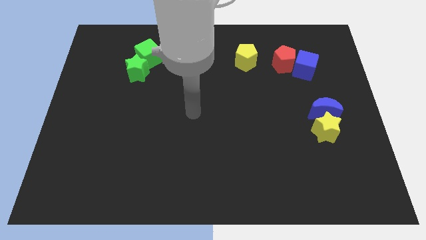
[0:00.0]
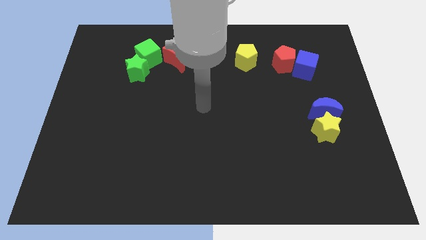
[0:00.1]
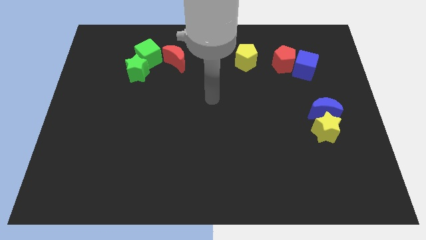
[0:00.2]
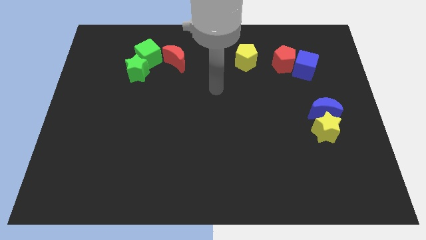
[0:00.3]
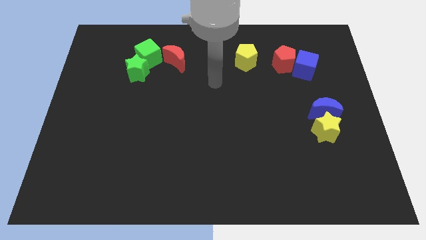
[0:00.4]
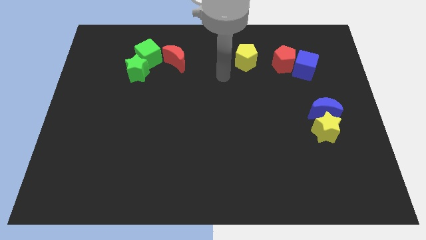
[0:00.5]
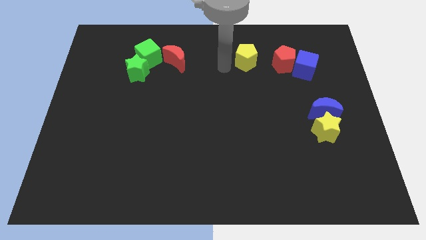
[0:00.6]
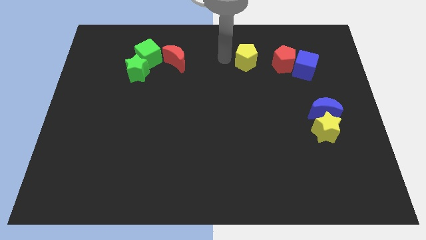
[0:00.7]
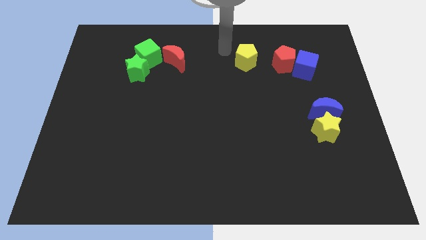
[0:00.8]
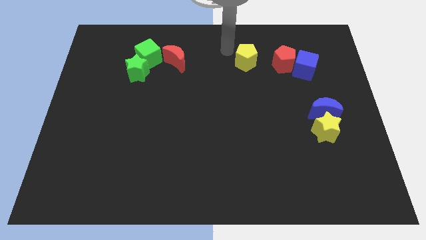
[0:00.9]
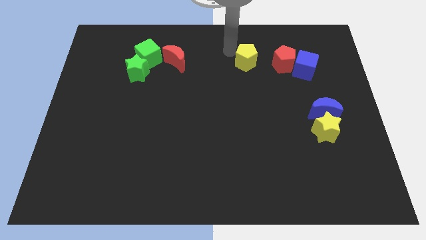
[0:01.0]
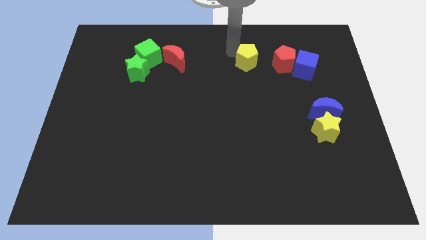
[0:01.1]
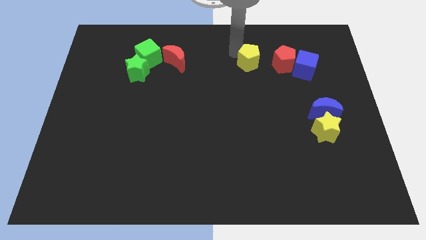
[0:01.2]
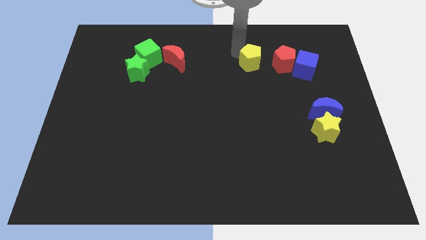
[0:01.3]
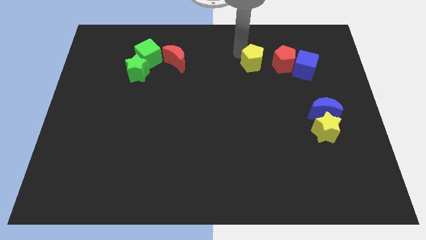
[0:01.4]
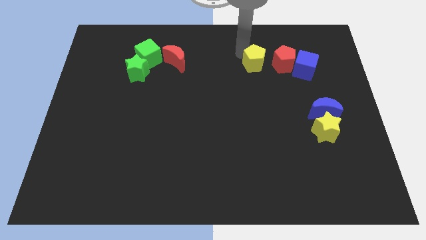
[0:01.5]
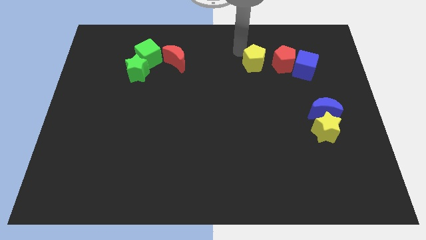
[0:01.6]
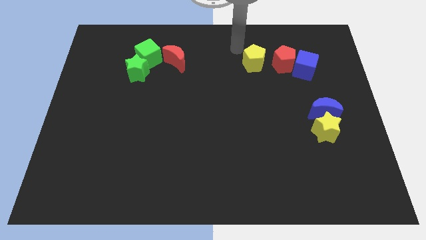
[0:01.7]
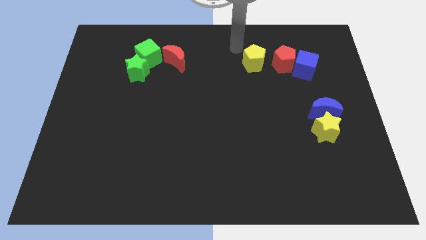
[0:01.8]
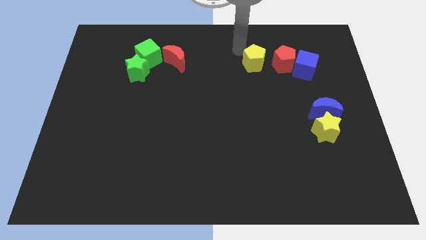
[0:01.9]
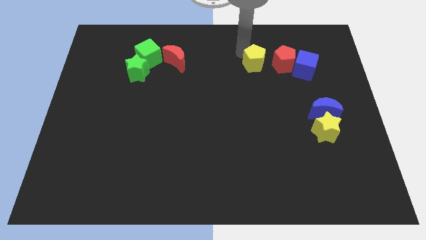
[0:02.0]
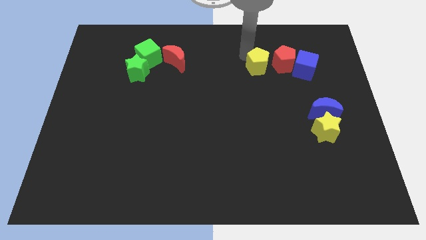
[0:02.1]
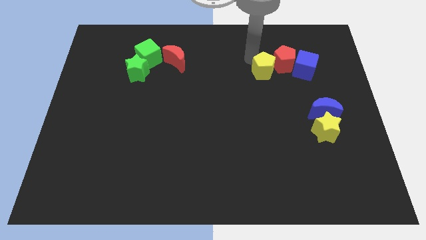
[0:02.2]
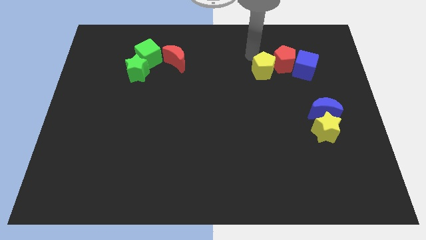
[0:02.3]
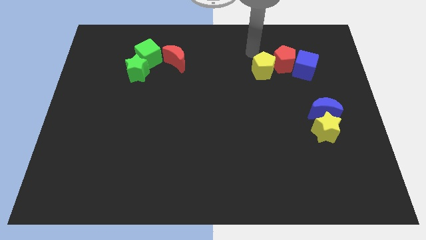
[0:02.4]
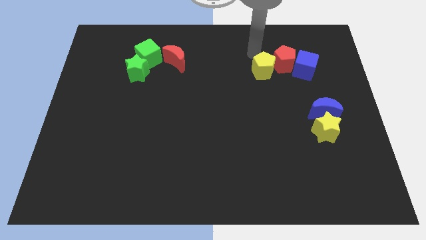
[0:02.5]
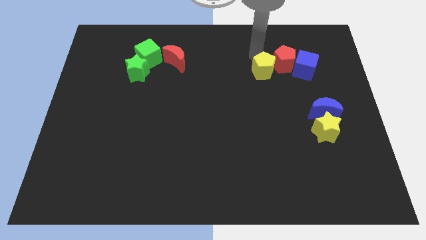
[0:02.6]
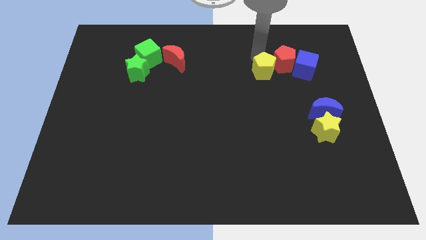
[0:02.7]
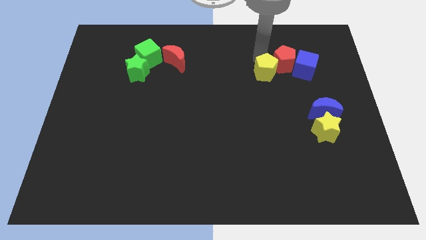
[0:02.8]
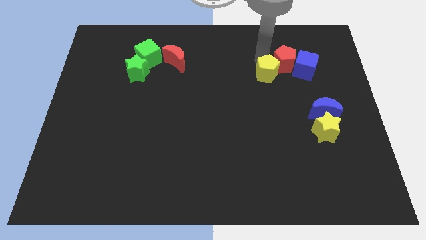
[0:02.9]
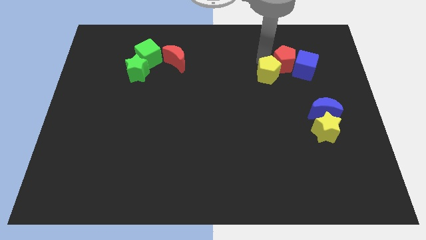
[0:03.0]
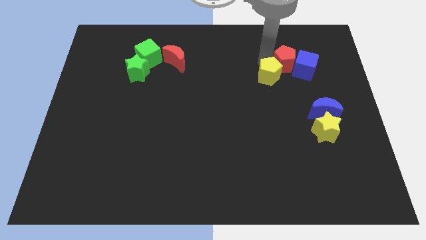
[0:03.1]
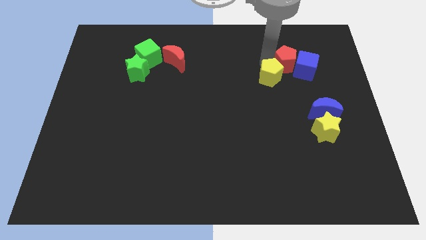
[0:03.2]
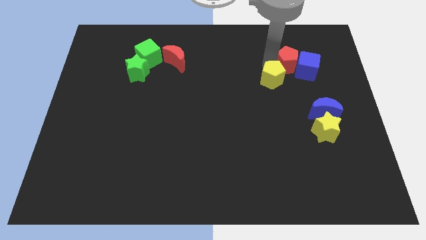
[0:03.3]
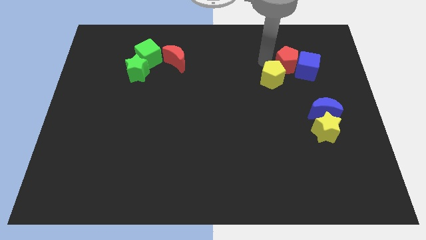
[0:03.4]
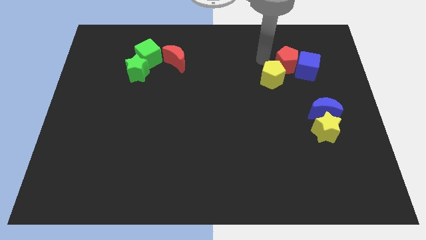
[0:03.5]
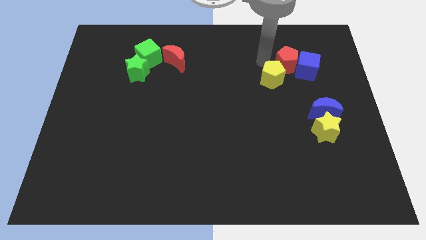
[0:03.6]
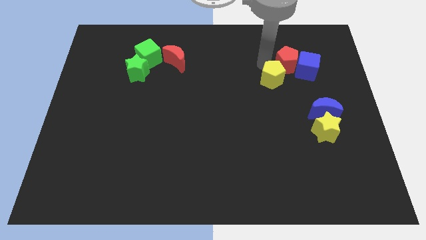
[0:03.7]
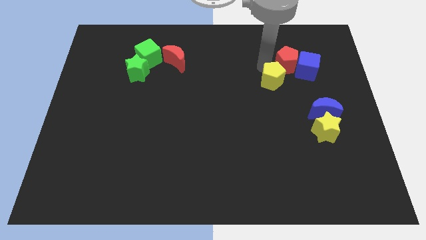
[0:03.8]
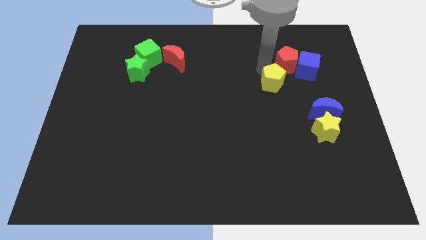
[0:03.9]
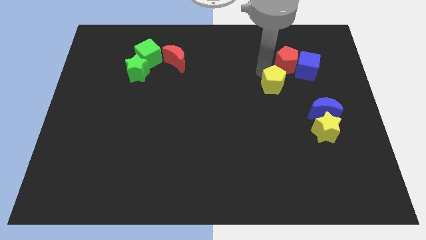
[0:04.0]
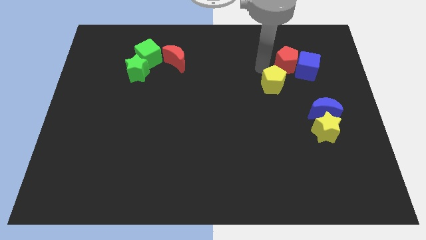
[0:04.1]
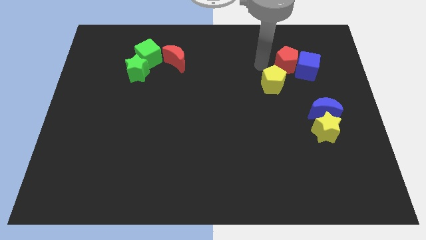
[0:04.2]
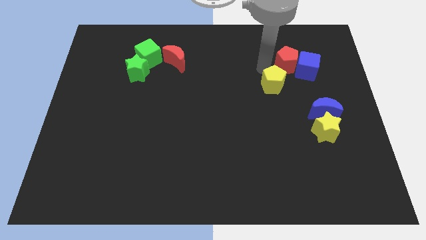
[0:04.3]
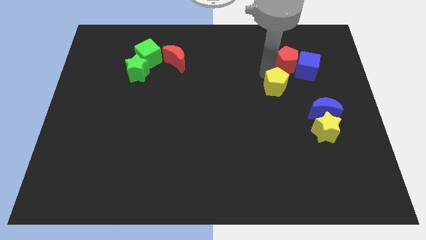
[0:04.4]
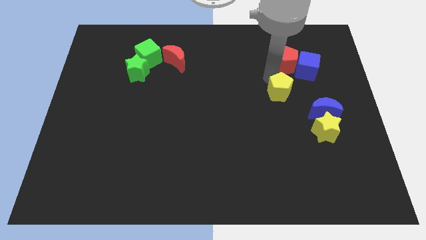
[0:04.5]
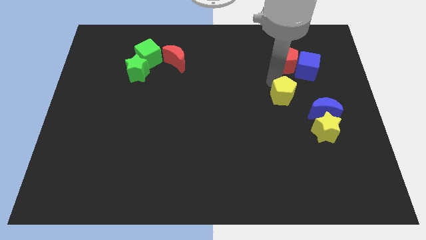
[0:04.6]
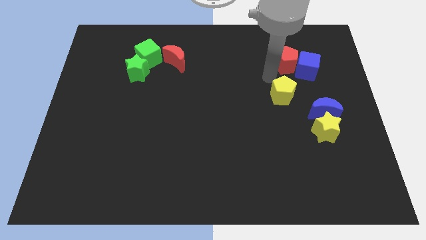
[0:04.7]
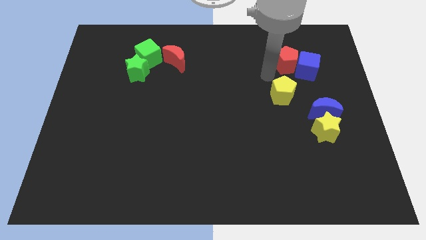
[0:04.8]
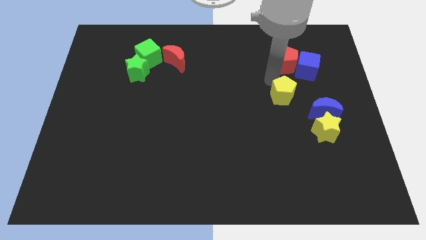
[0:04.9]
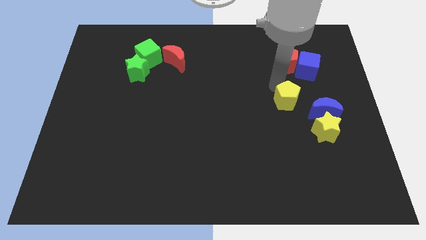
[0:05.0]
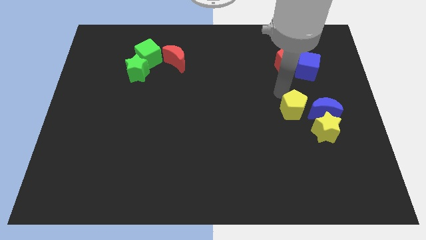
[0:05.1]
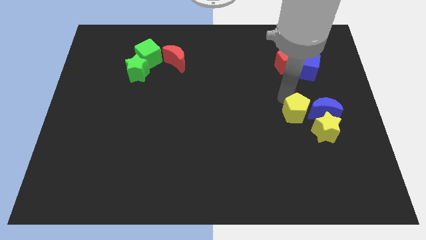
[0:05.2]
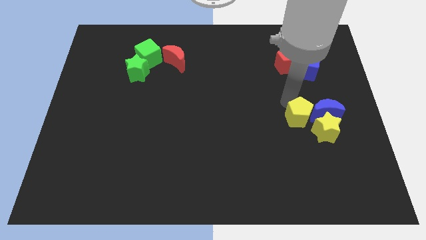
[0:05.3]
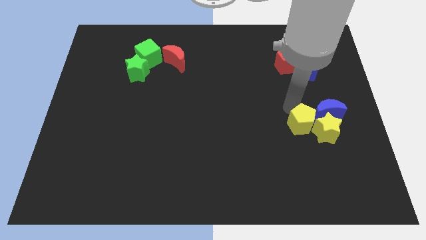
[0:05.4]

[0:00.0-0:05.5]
push the yellow pentagon to the yellow star

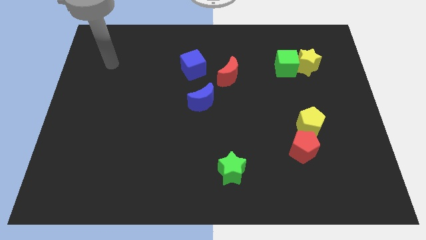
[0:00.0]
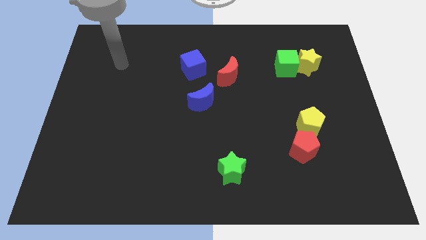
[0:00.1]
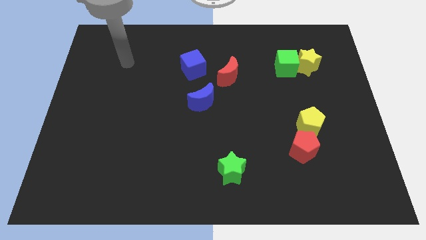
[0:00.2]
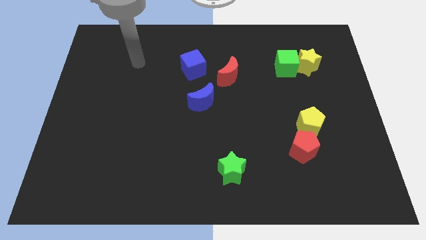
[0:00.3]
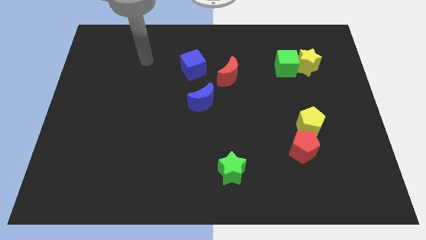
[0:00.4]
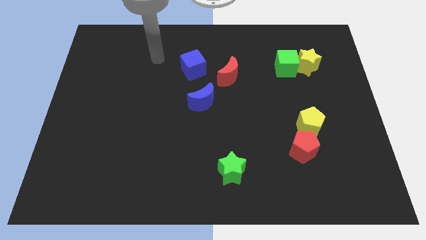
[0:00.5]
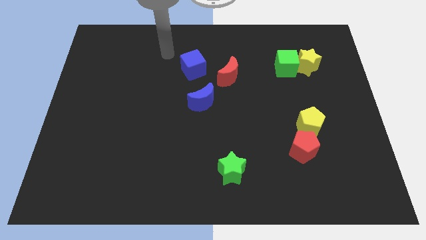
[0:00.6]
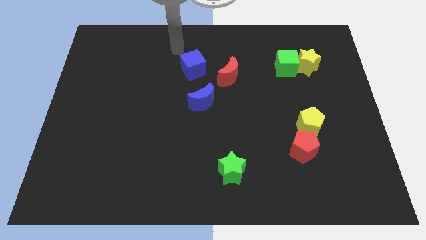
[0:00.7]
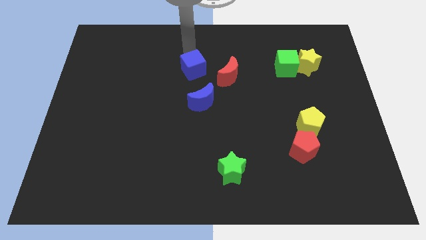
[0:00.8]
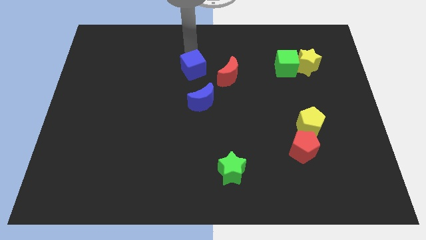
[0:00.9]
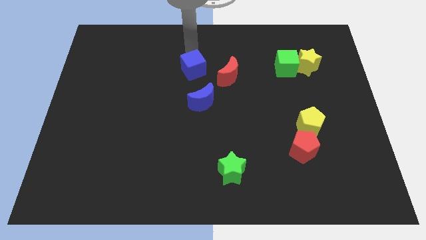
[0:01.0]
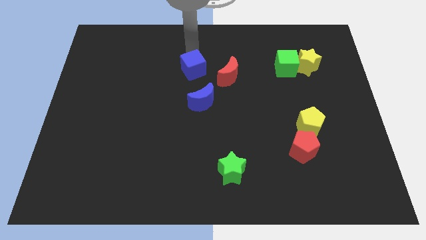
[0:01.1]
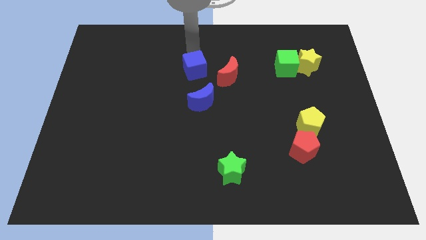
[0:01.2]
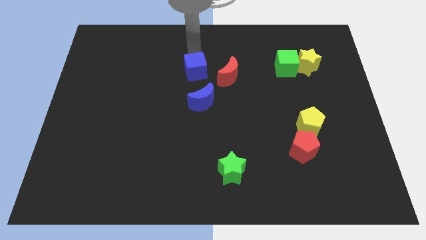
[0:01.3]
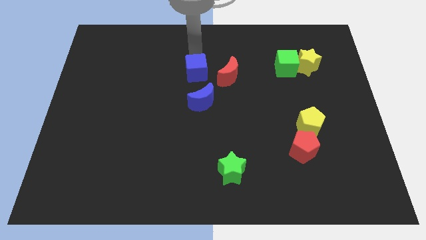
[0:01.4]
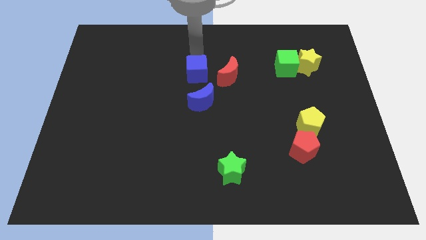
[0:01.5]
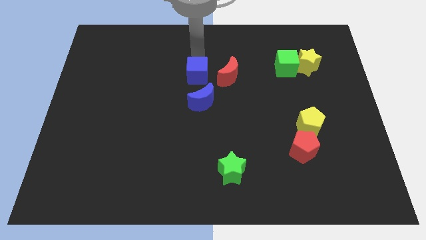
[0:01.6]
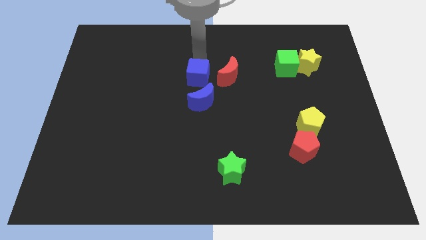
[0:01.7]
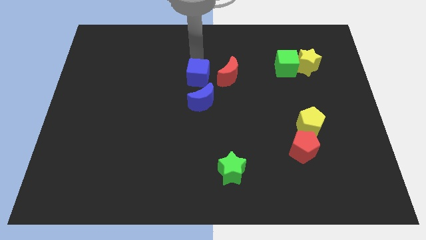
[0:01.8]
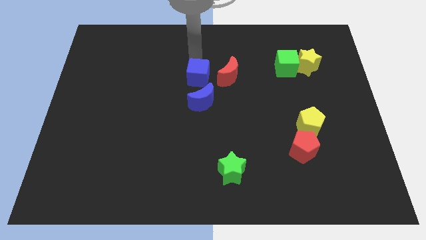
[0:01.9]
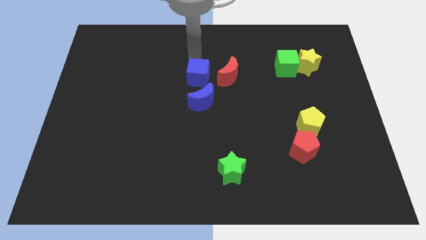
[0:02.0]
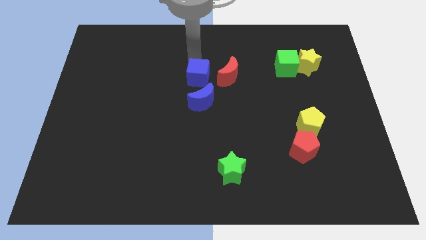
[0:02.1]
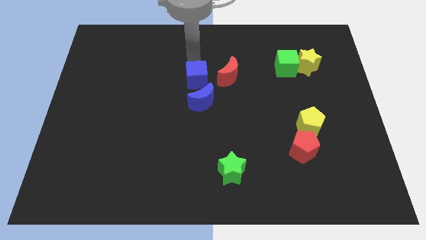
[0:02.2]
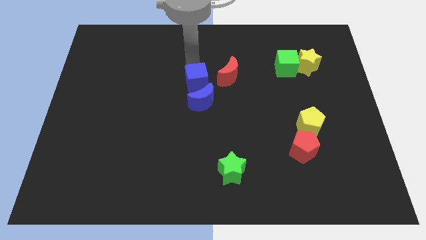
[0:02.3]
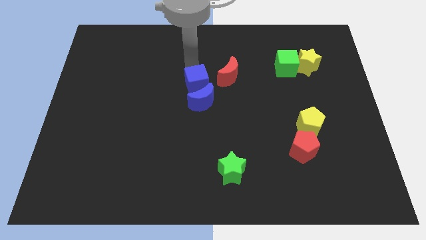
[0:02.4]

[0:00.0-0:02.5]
put the blue cube towards the blue moon
